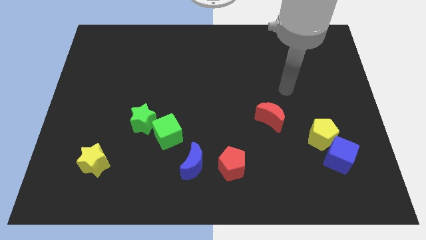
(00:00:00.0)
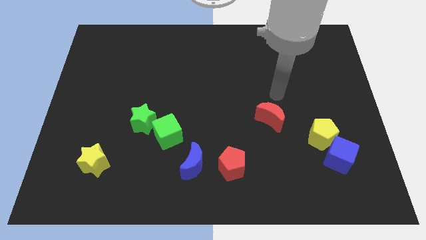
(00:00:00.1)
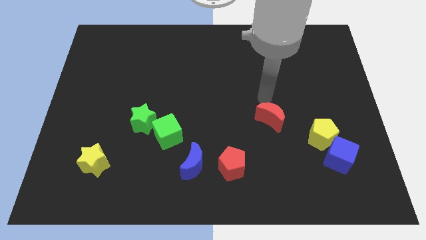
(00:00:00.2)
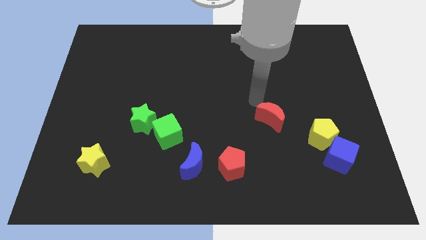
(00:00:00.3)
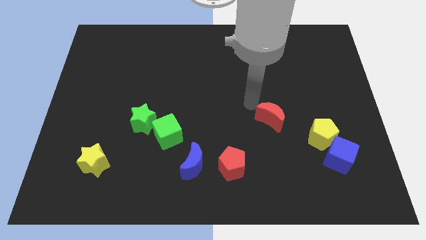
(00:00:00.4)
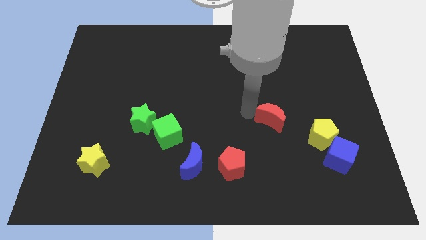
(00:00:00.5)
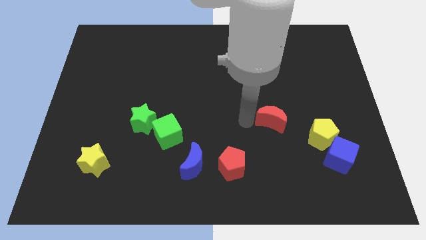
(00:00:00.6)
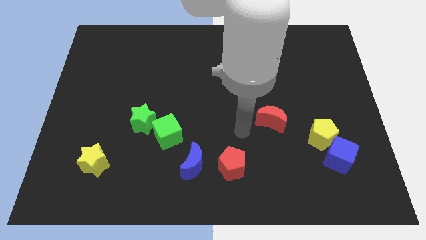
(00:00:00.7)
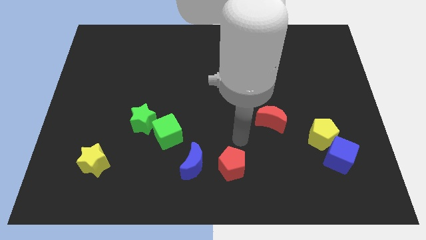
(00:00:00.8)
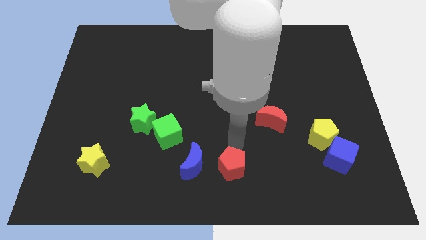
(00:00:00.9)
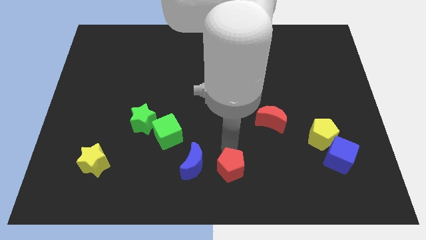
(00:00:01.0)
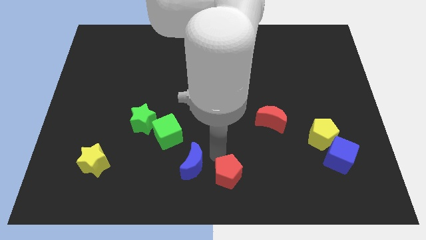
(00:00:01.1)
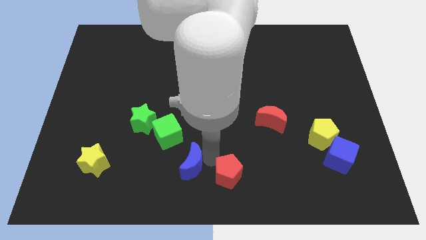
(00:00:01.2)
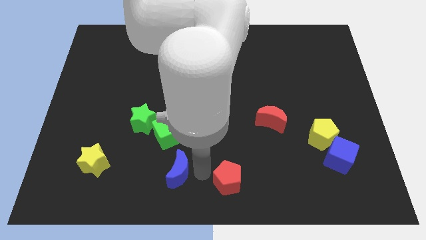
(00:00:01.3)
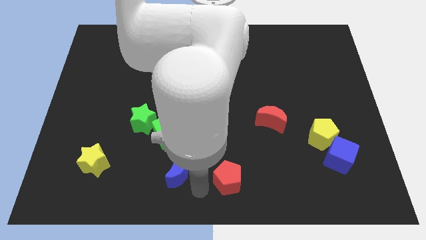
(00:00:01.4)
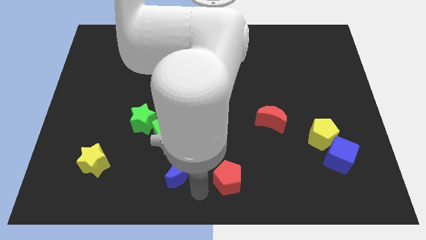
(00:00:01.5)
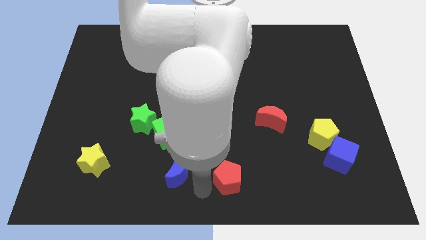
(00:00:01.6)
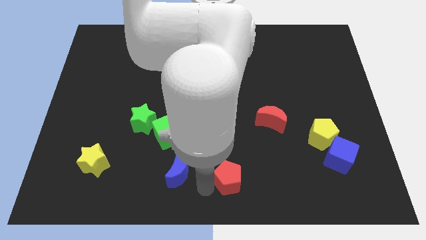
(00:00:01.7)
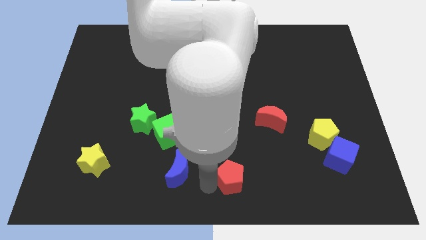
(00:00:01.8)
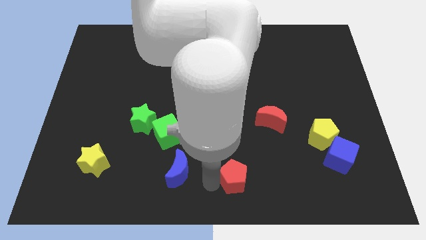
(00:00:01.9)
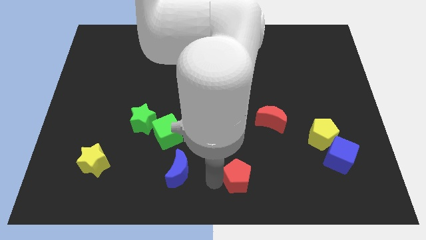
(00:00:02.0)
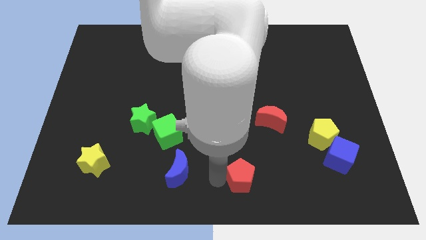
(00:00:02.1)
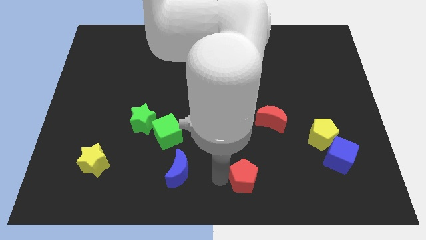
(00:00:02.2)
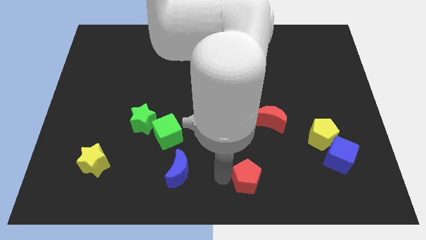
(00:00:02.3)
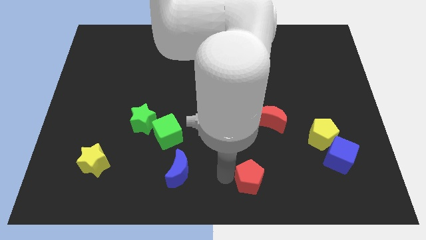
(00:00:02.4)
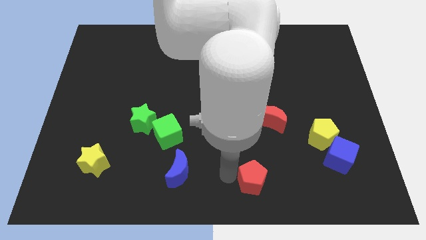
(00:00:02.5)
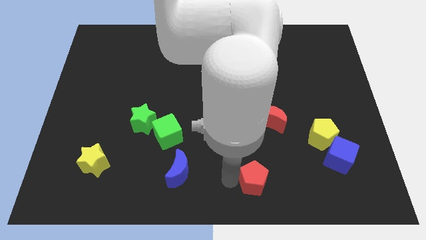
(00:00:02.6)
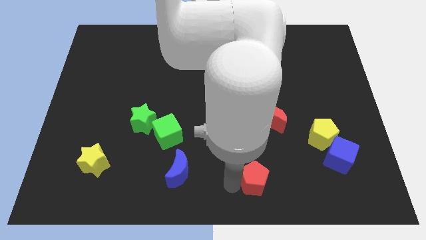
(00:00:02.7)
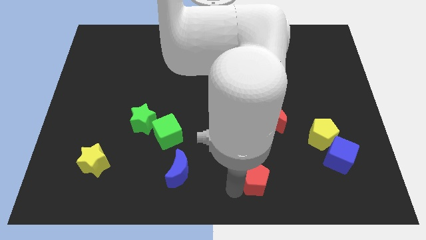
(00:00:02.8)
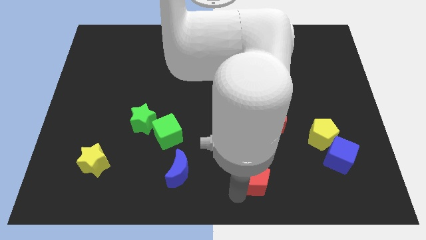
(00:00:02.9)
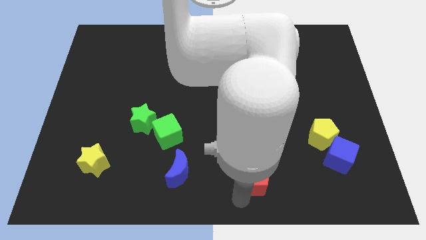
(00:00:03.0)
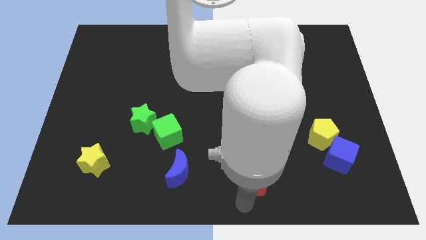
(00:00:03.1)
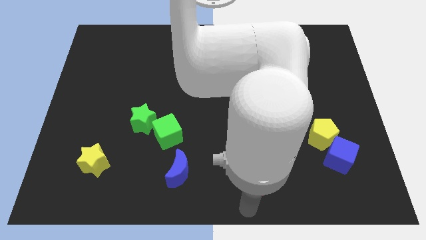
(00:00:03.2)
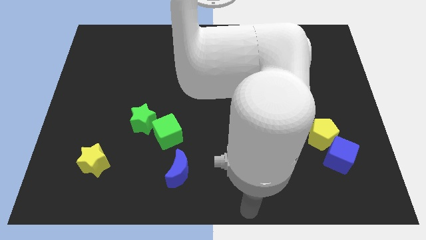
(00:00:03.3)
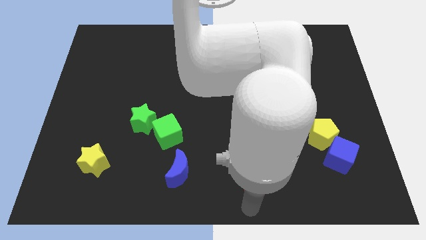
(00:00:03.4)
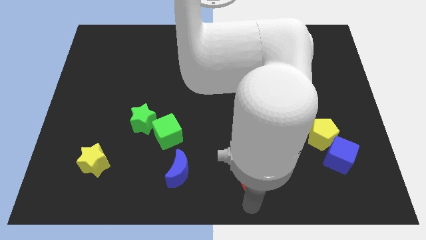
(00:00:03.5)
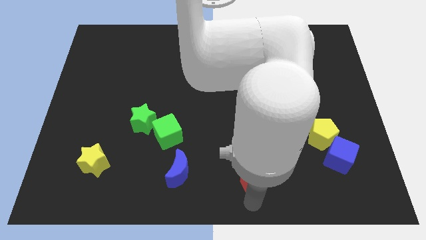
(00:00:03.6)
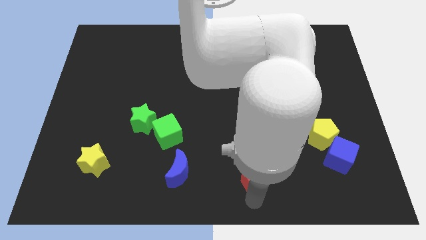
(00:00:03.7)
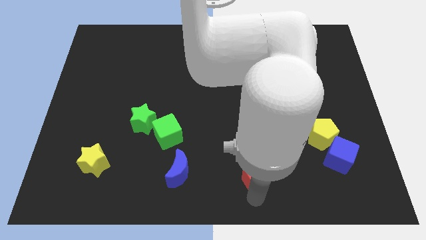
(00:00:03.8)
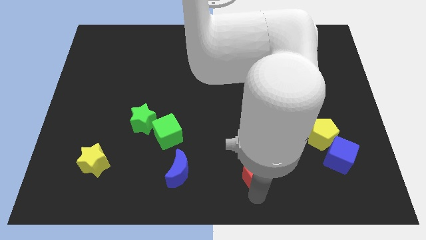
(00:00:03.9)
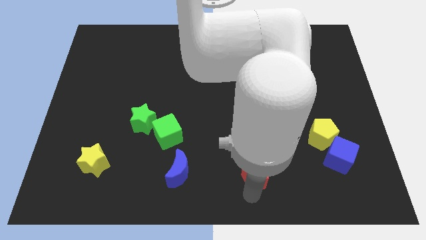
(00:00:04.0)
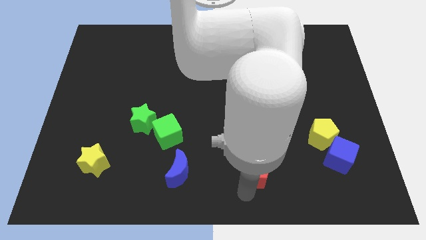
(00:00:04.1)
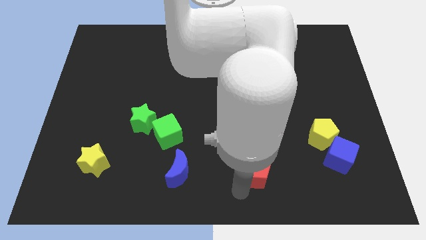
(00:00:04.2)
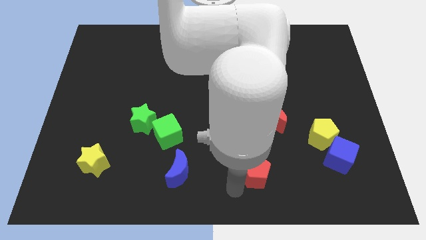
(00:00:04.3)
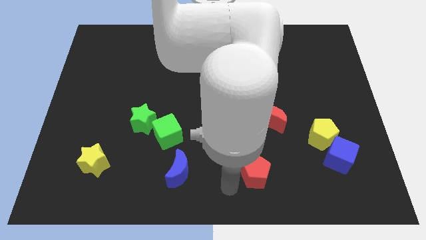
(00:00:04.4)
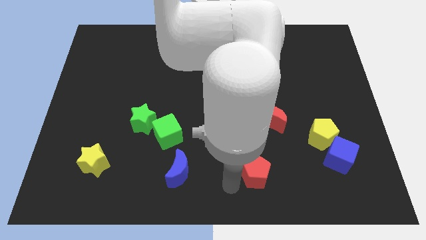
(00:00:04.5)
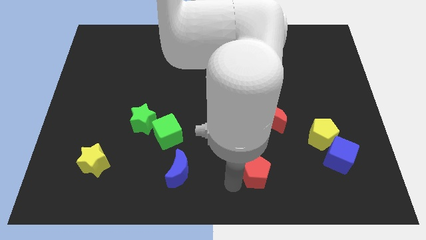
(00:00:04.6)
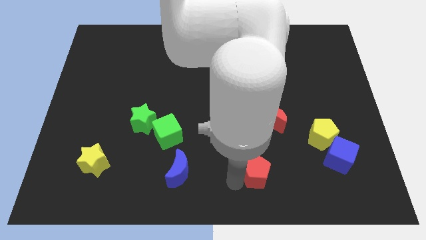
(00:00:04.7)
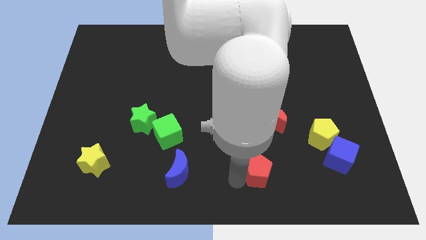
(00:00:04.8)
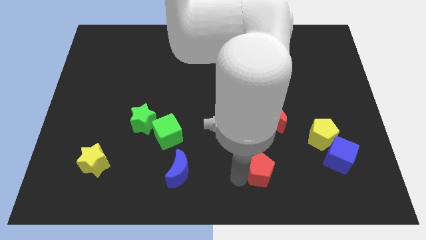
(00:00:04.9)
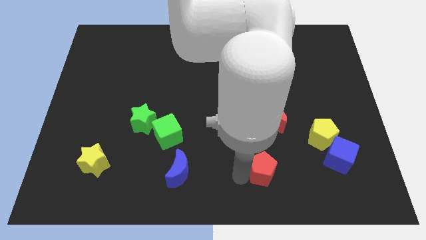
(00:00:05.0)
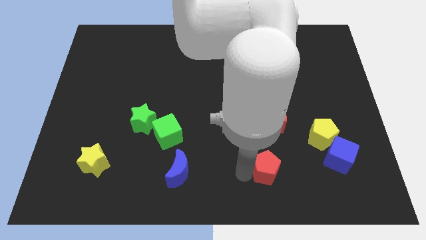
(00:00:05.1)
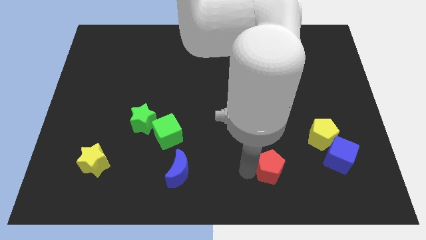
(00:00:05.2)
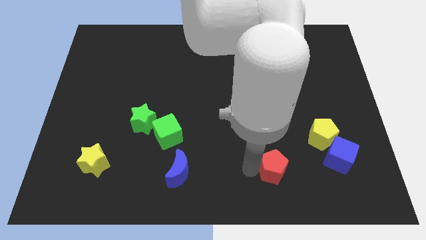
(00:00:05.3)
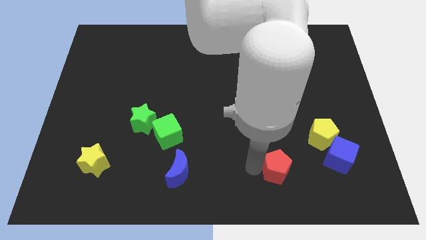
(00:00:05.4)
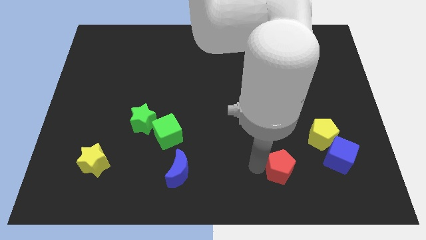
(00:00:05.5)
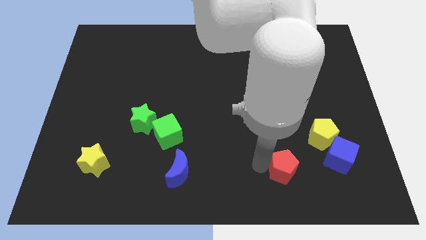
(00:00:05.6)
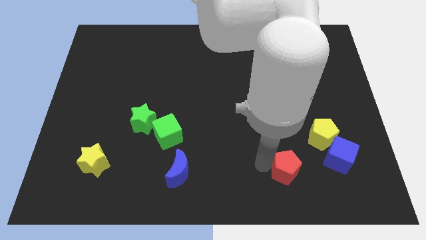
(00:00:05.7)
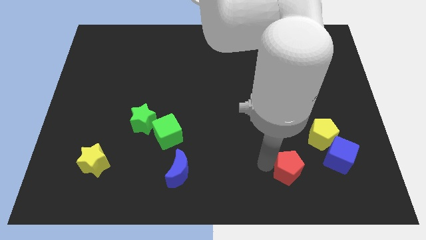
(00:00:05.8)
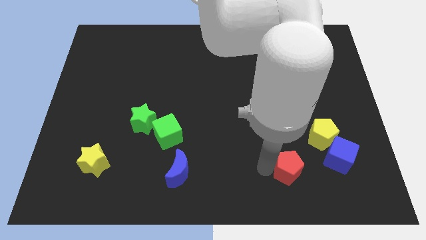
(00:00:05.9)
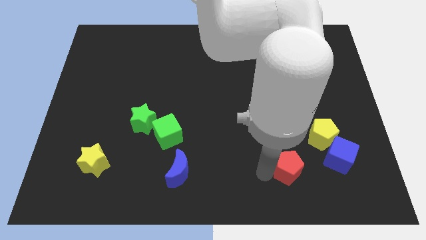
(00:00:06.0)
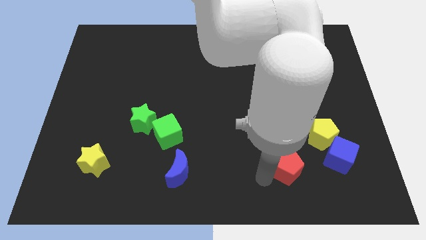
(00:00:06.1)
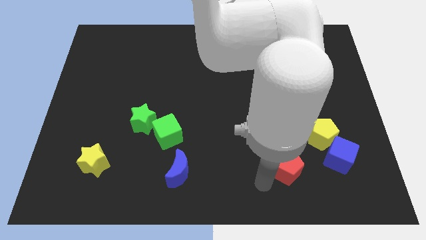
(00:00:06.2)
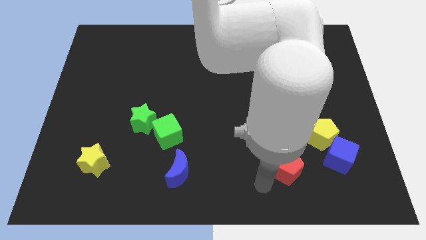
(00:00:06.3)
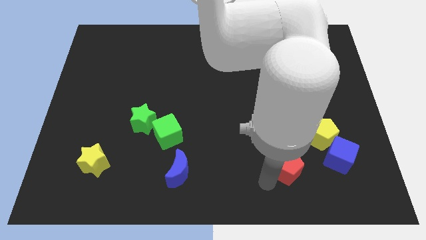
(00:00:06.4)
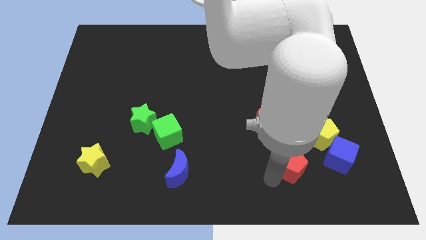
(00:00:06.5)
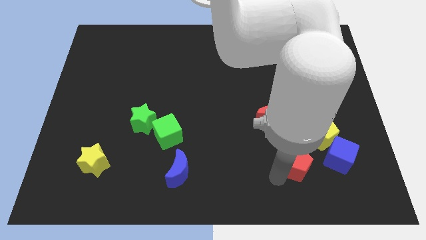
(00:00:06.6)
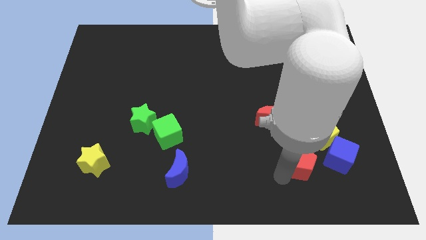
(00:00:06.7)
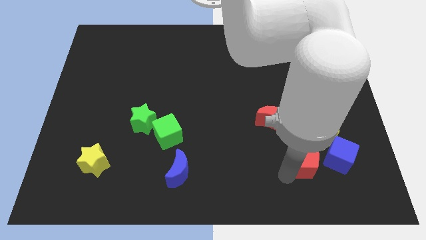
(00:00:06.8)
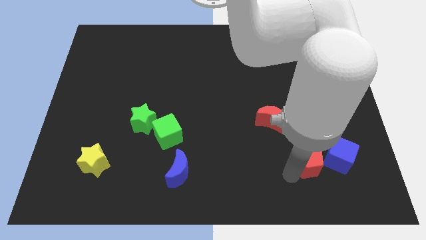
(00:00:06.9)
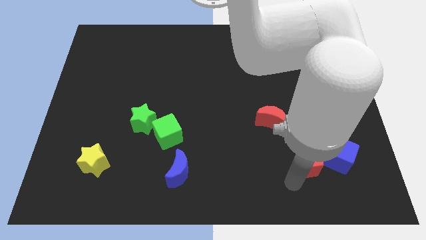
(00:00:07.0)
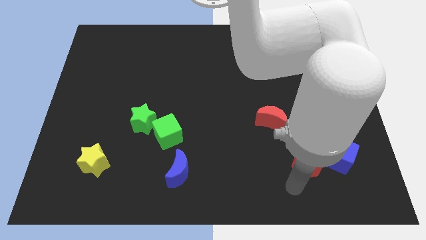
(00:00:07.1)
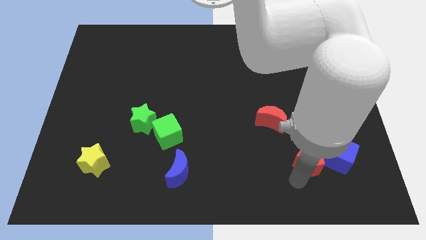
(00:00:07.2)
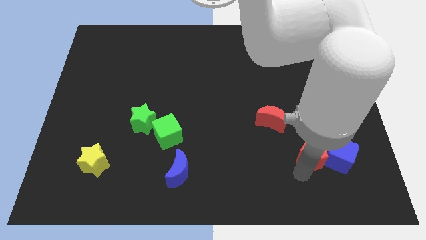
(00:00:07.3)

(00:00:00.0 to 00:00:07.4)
slide the red pentagon to the yellow pentagon

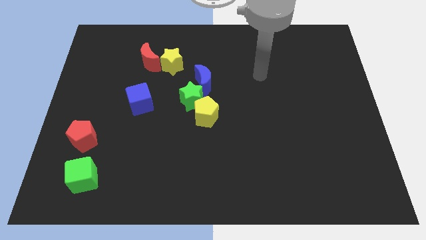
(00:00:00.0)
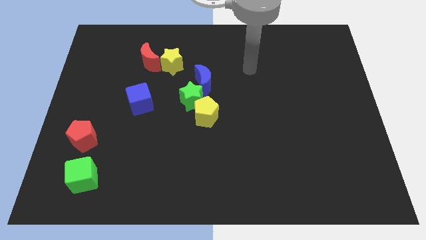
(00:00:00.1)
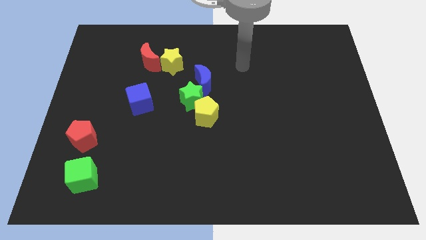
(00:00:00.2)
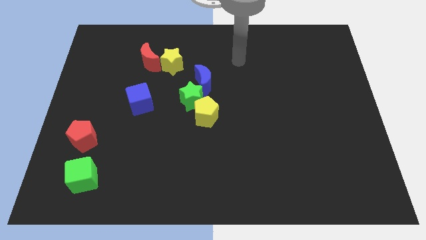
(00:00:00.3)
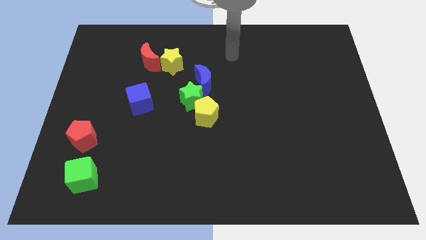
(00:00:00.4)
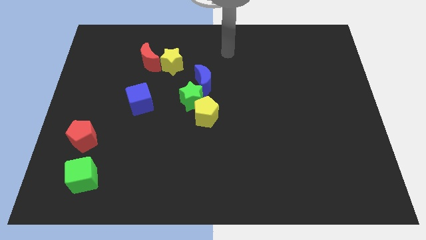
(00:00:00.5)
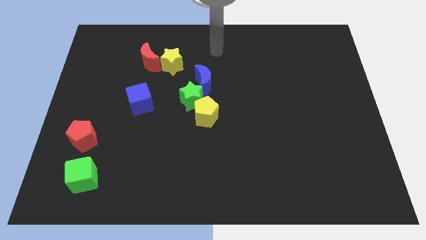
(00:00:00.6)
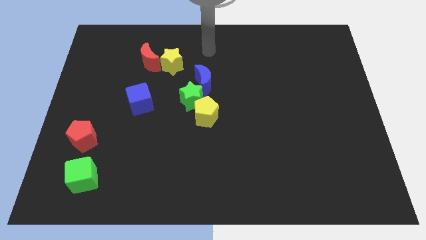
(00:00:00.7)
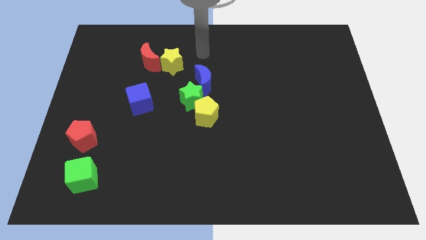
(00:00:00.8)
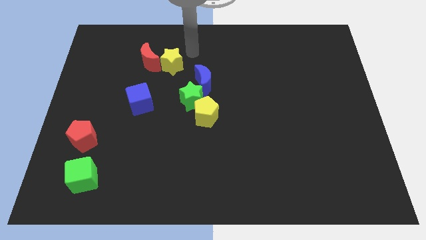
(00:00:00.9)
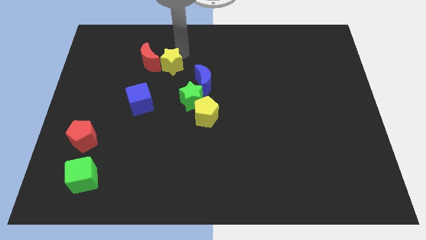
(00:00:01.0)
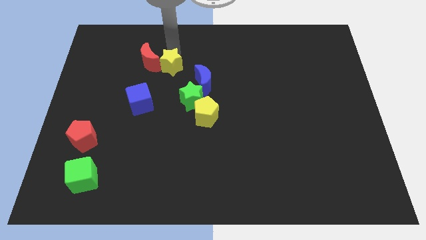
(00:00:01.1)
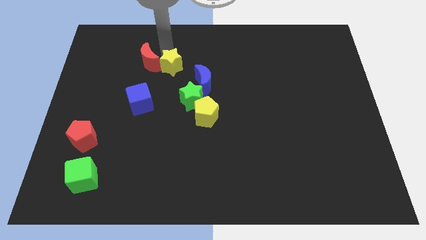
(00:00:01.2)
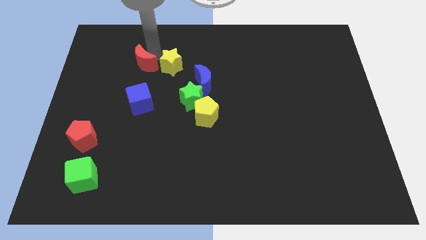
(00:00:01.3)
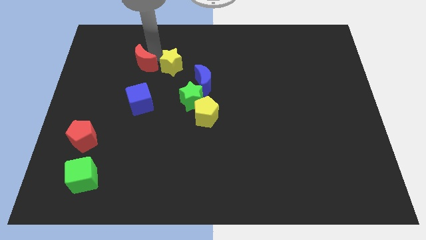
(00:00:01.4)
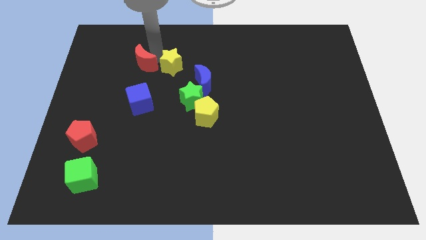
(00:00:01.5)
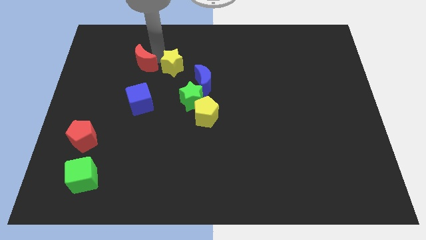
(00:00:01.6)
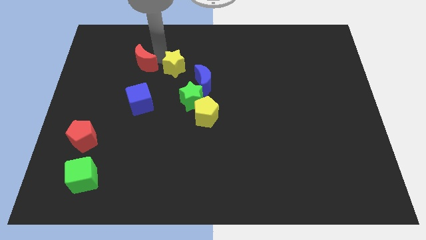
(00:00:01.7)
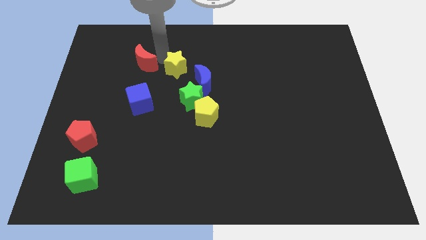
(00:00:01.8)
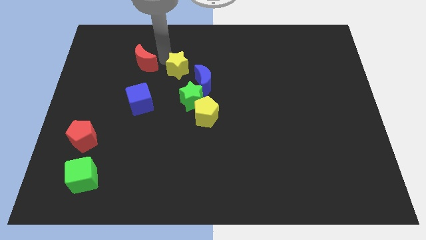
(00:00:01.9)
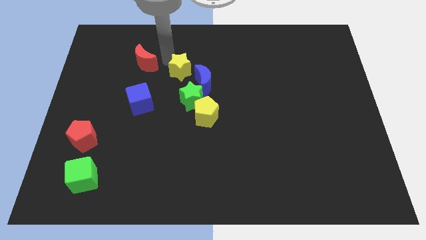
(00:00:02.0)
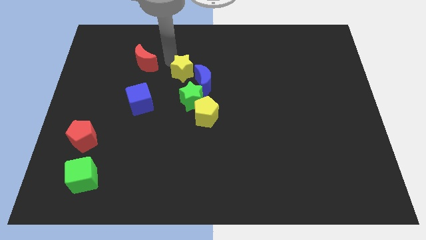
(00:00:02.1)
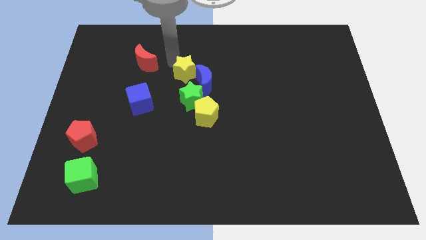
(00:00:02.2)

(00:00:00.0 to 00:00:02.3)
slide the yellow star next to the blue moon
